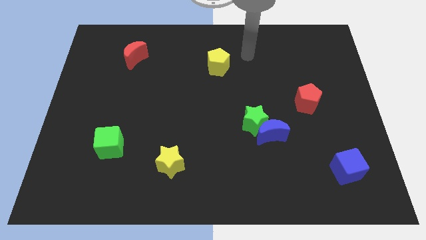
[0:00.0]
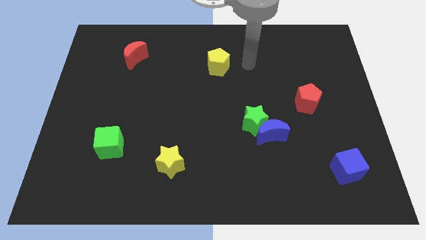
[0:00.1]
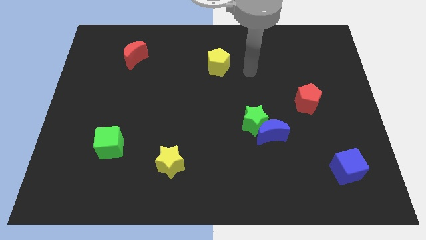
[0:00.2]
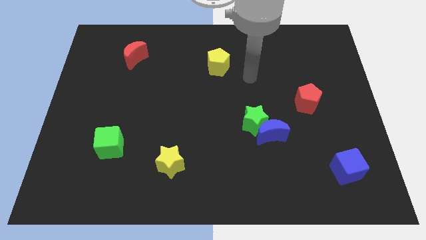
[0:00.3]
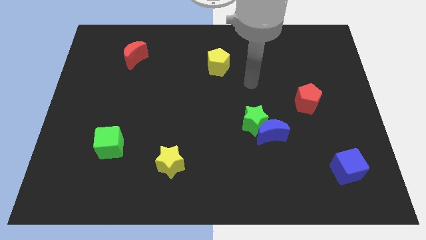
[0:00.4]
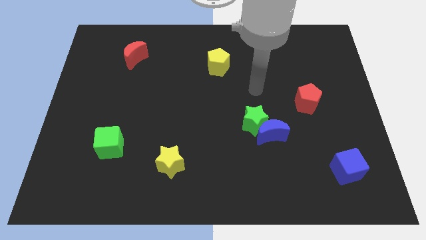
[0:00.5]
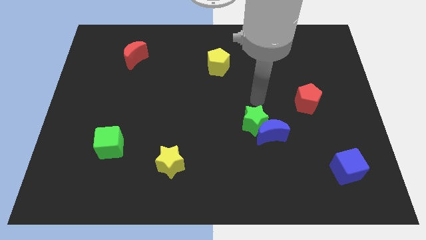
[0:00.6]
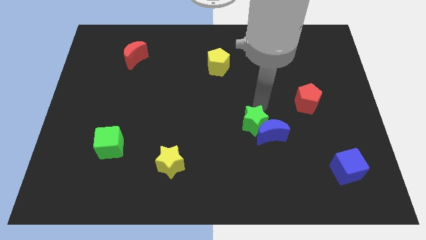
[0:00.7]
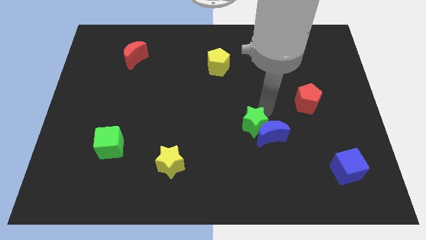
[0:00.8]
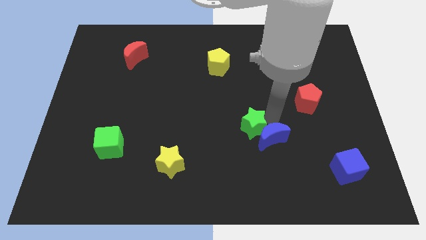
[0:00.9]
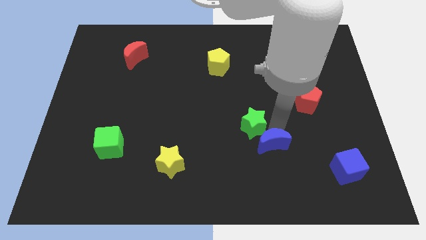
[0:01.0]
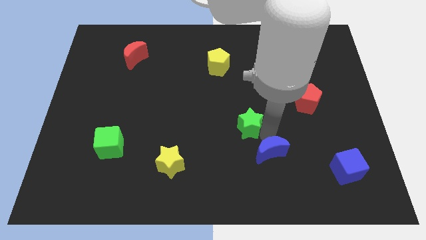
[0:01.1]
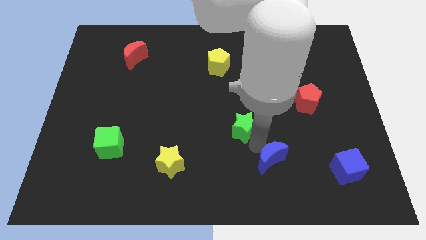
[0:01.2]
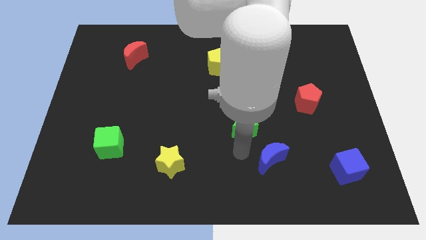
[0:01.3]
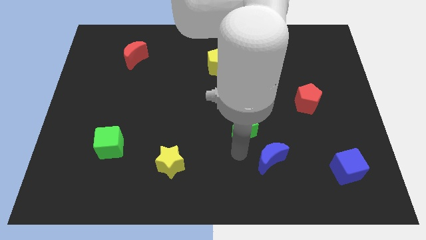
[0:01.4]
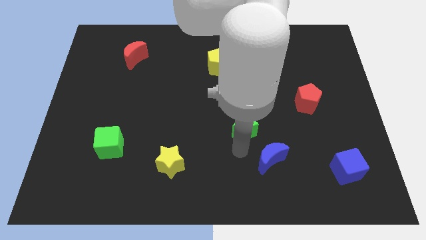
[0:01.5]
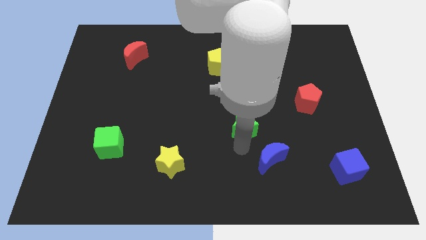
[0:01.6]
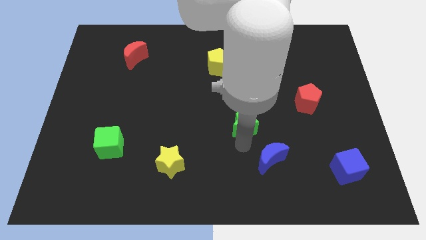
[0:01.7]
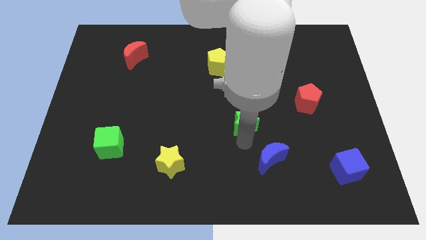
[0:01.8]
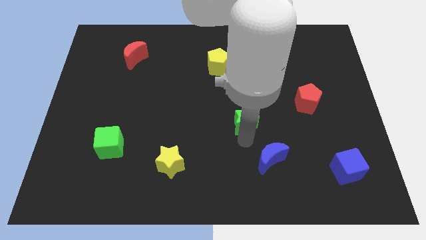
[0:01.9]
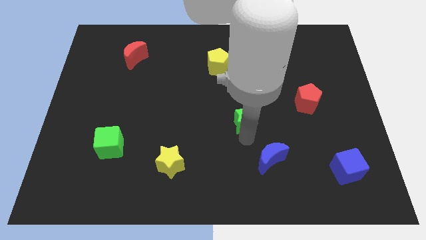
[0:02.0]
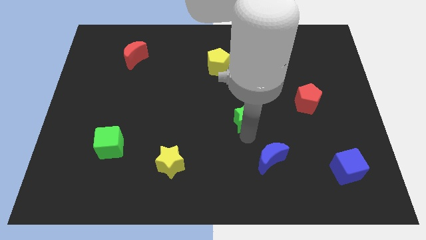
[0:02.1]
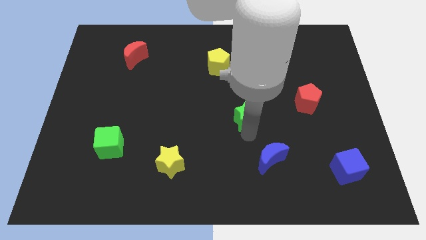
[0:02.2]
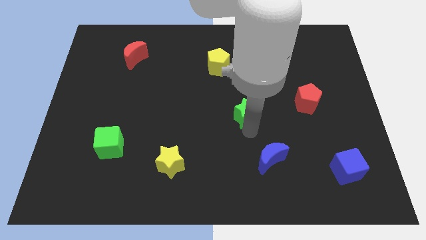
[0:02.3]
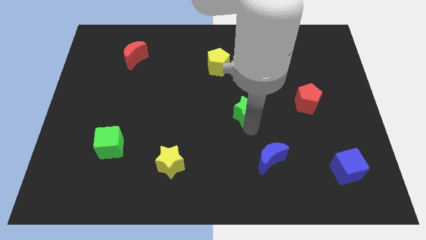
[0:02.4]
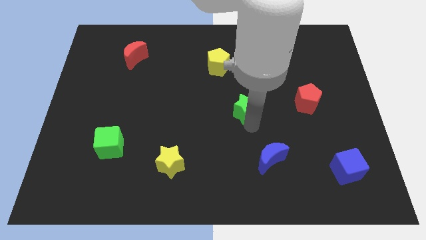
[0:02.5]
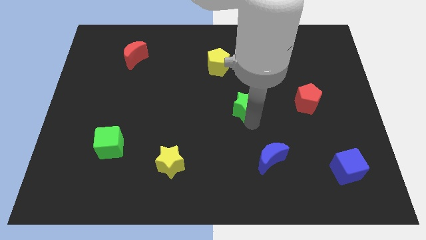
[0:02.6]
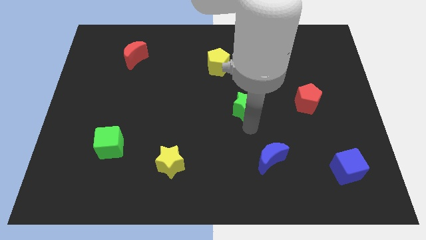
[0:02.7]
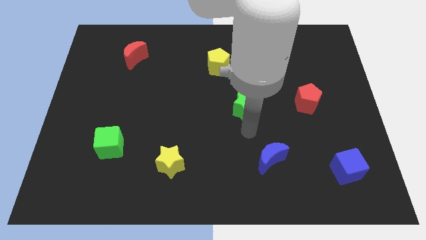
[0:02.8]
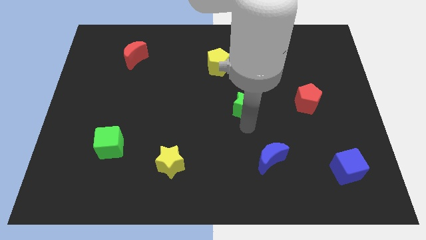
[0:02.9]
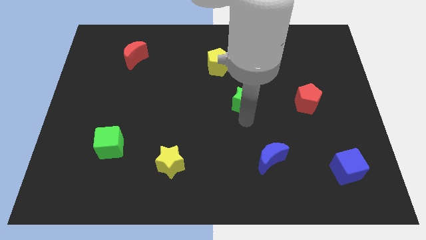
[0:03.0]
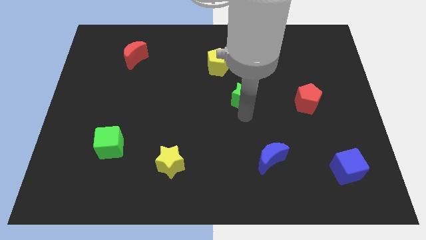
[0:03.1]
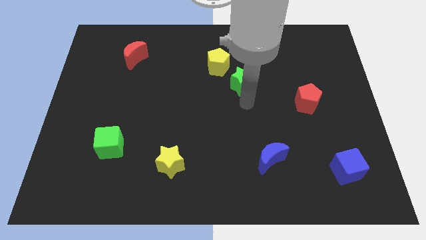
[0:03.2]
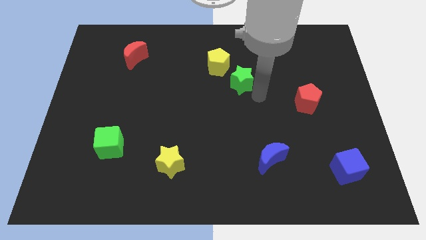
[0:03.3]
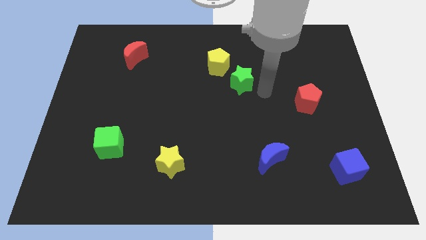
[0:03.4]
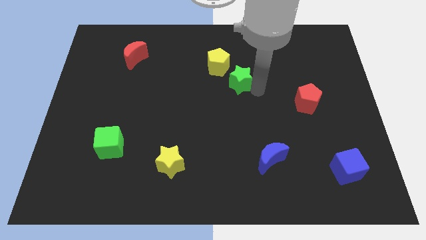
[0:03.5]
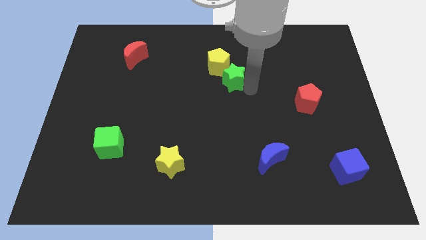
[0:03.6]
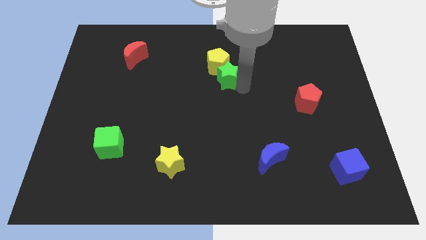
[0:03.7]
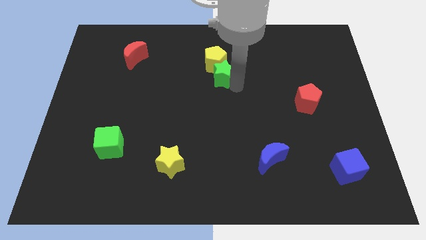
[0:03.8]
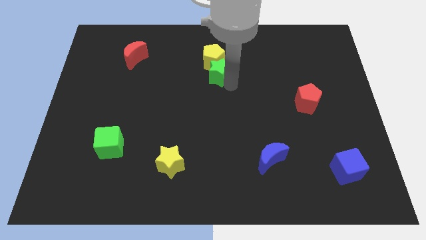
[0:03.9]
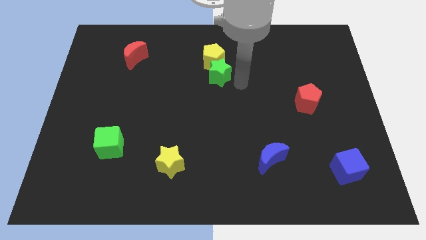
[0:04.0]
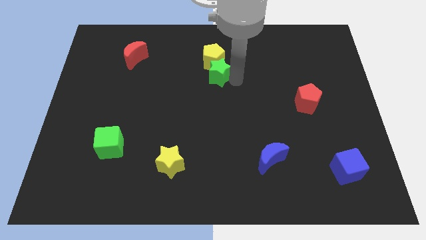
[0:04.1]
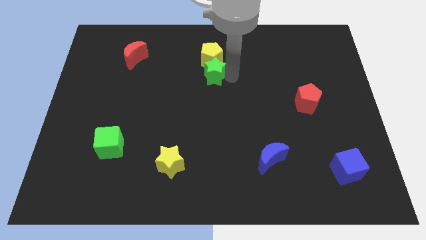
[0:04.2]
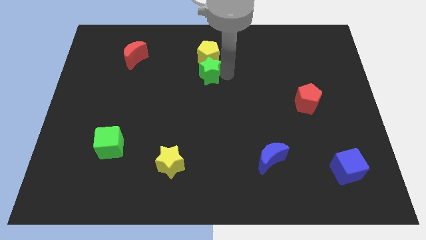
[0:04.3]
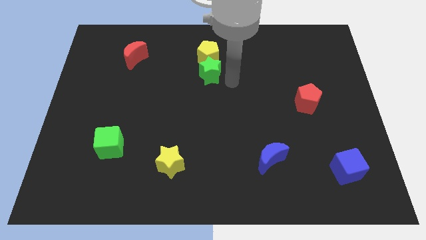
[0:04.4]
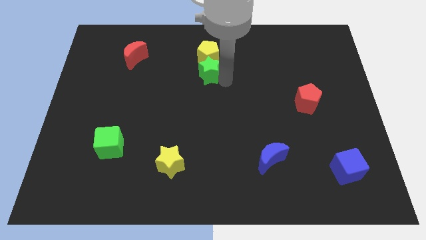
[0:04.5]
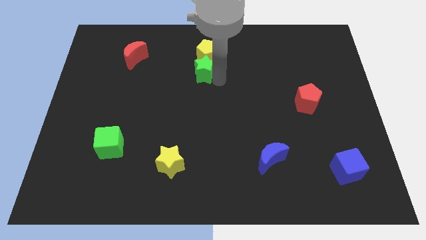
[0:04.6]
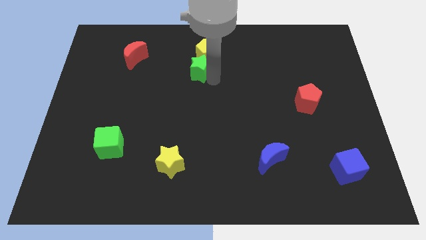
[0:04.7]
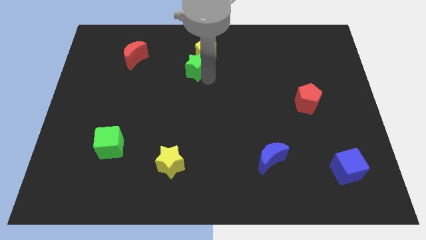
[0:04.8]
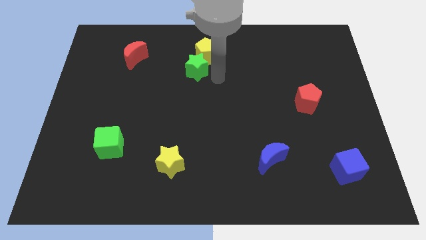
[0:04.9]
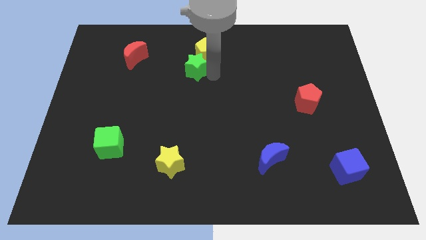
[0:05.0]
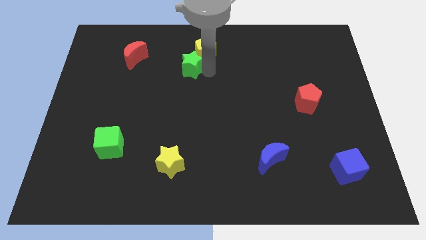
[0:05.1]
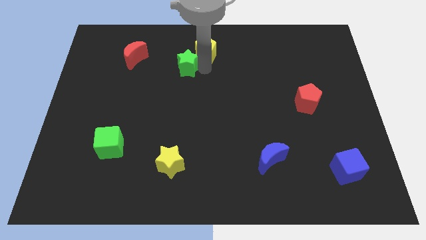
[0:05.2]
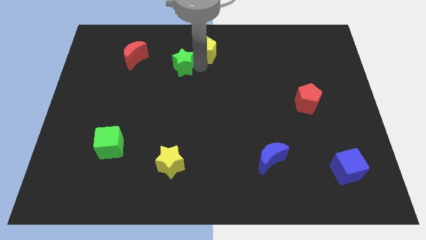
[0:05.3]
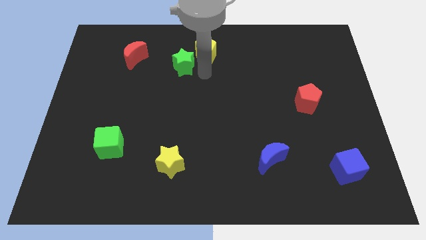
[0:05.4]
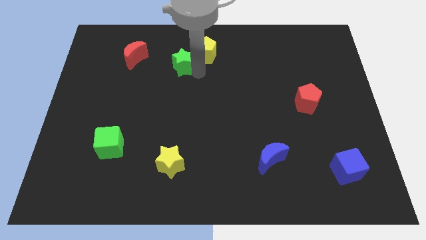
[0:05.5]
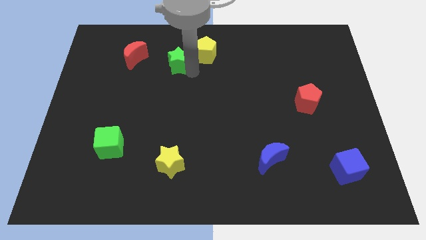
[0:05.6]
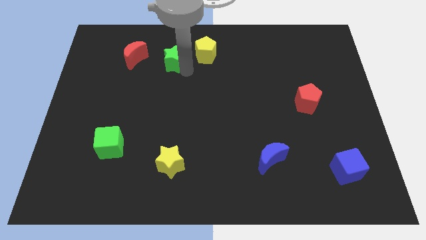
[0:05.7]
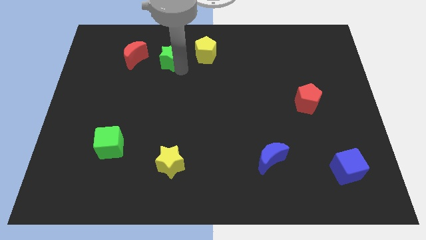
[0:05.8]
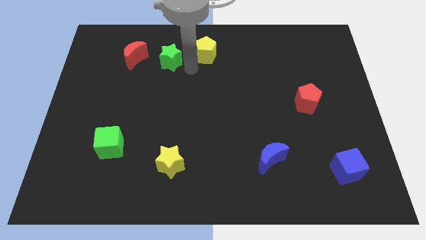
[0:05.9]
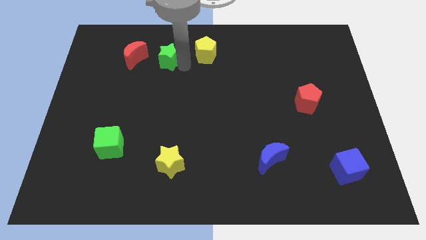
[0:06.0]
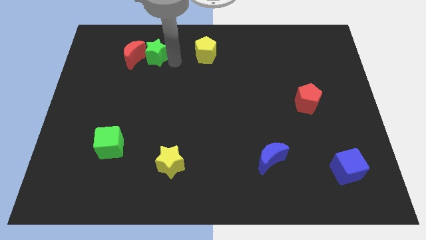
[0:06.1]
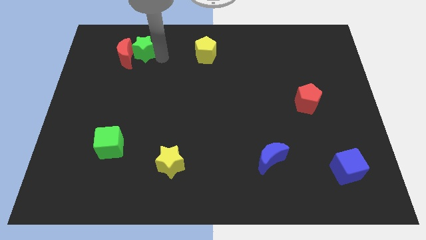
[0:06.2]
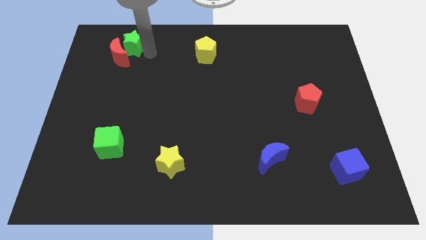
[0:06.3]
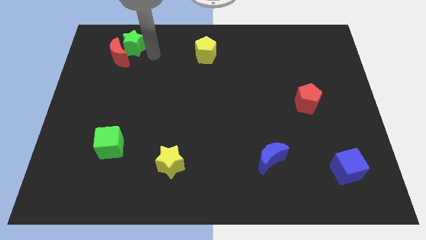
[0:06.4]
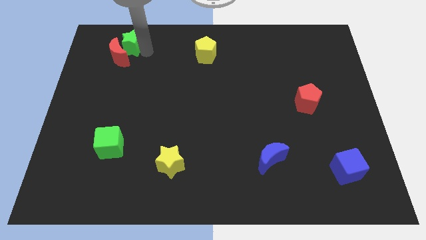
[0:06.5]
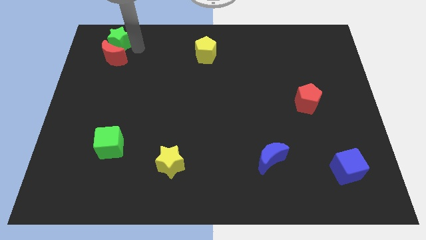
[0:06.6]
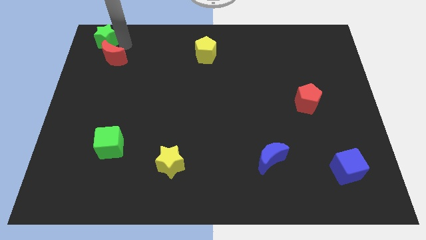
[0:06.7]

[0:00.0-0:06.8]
push the green star to the top left corner

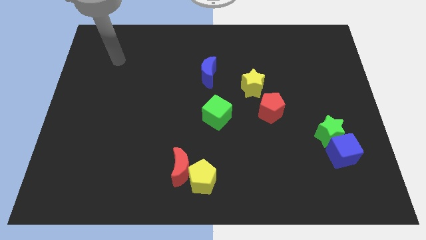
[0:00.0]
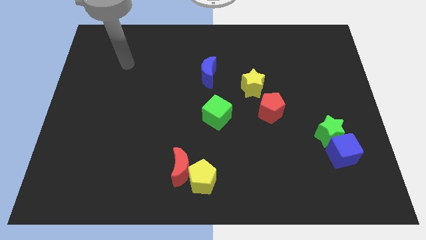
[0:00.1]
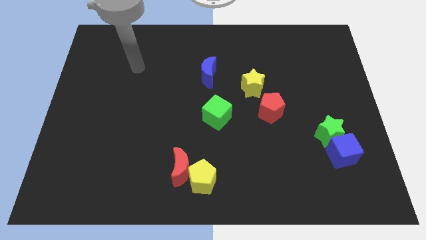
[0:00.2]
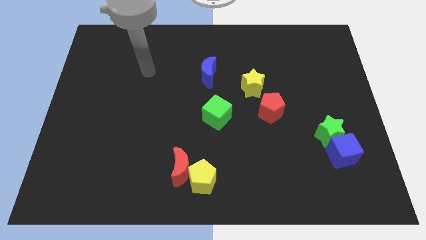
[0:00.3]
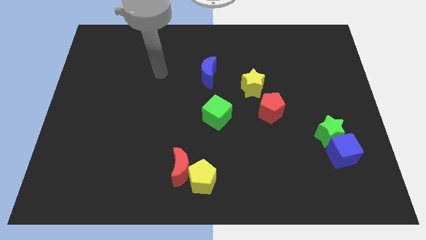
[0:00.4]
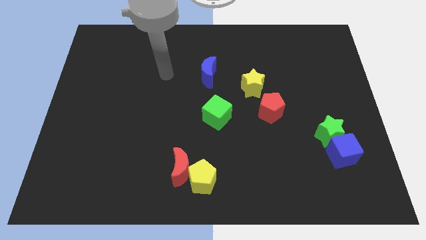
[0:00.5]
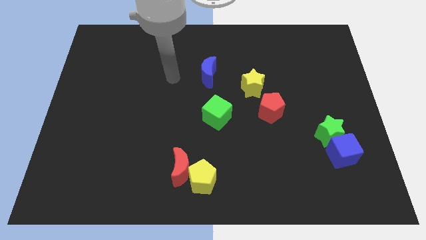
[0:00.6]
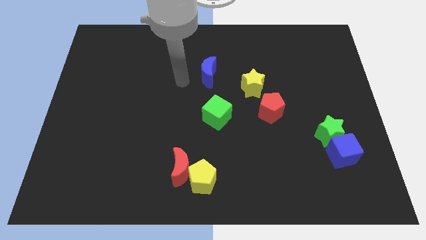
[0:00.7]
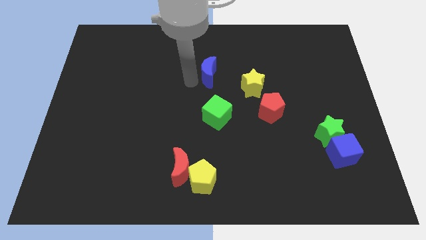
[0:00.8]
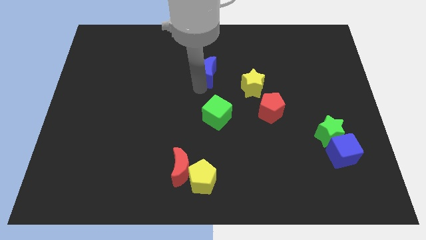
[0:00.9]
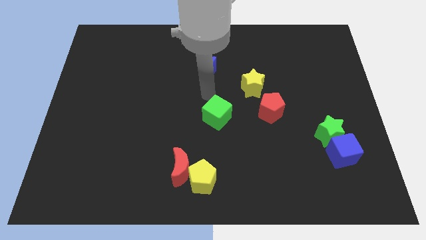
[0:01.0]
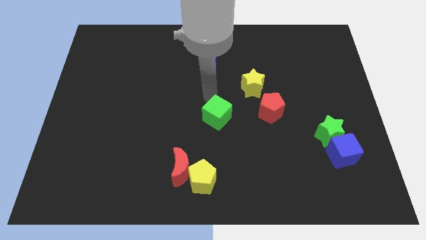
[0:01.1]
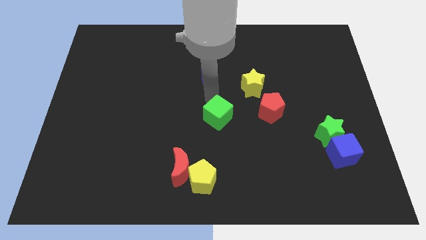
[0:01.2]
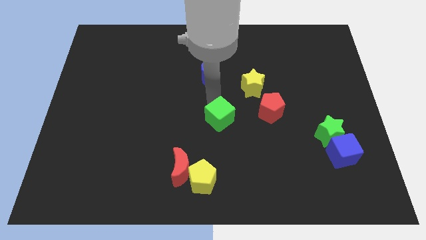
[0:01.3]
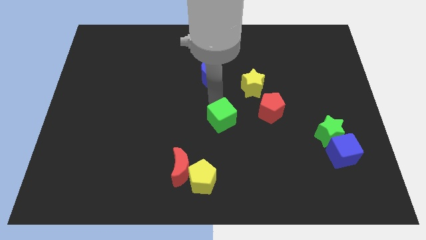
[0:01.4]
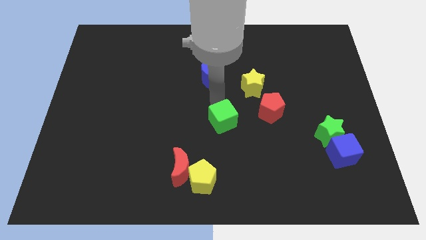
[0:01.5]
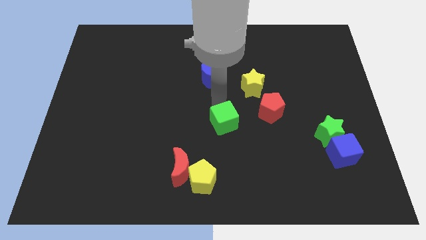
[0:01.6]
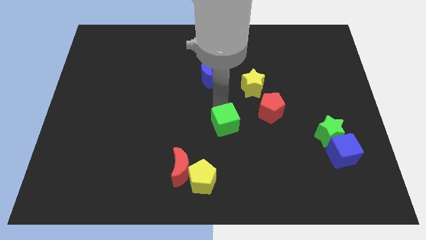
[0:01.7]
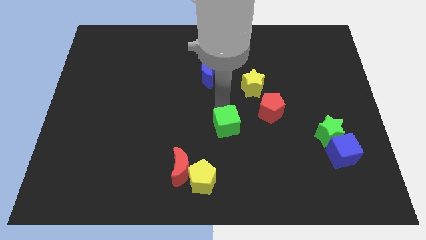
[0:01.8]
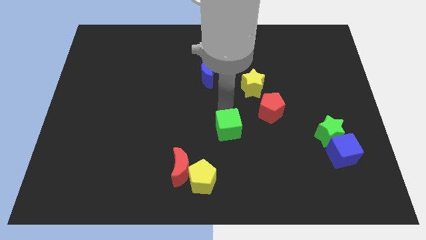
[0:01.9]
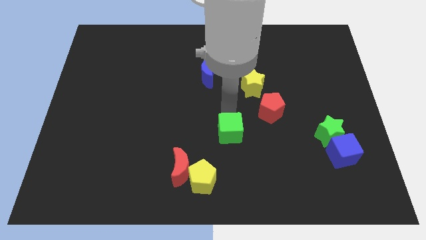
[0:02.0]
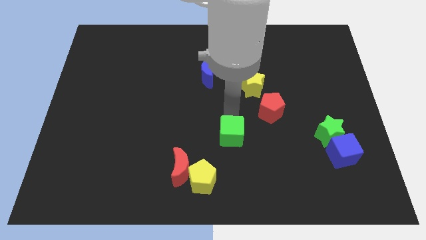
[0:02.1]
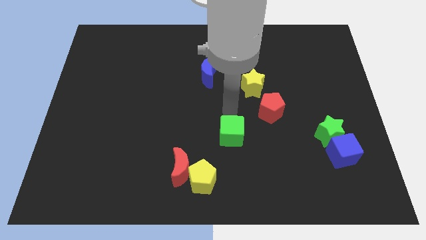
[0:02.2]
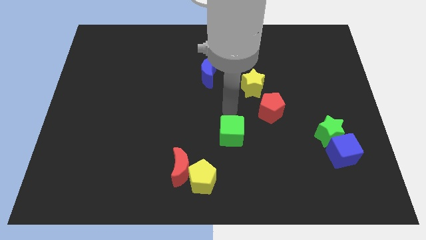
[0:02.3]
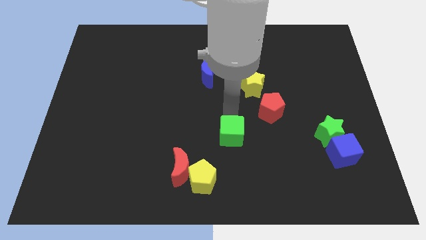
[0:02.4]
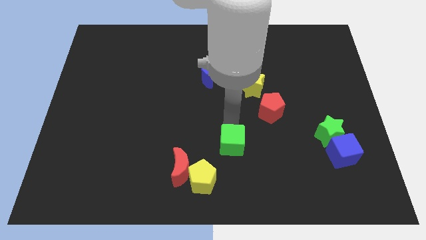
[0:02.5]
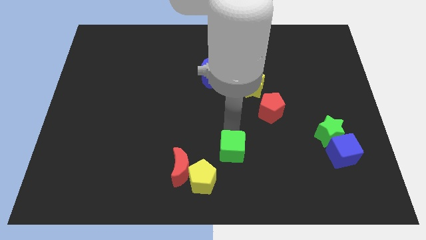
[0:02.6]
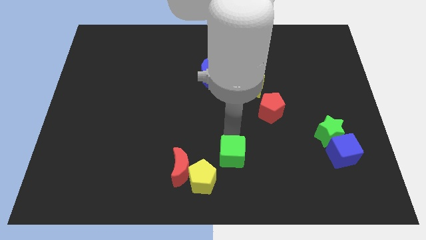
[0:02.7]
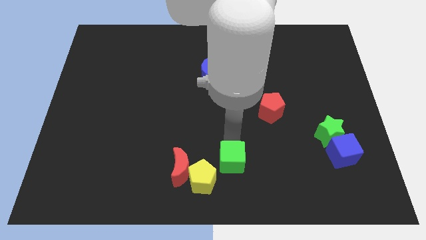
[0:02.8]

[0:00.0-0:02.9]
push the green cube to the bottom
